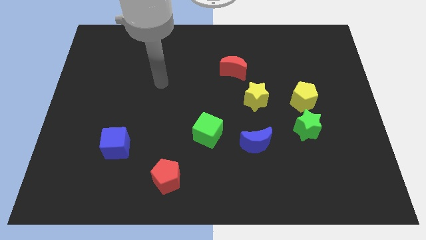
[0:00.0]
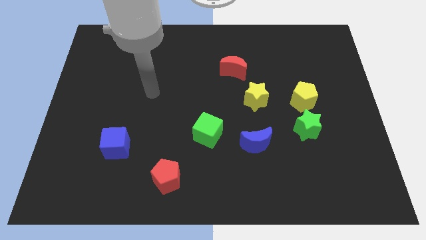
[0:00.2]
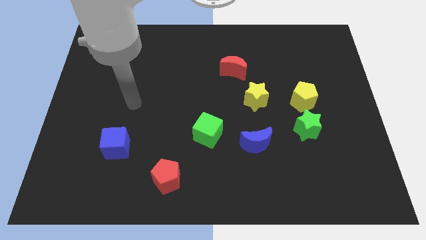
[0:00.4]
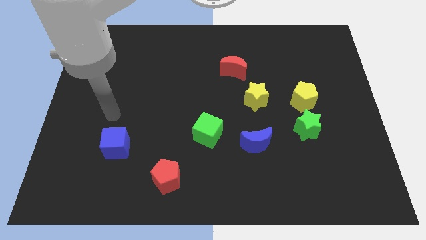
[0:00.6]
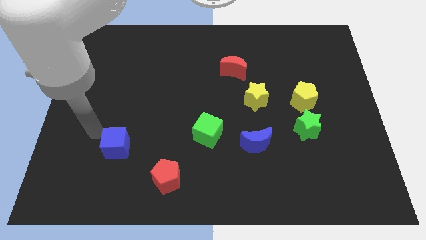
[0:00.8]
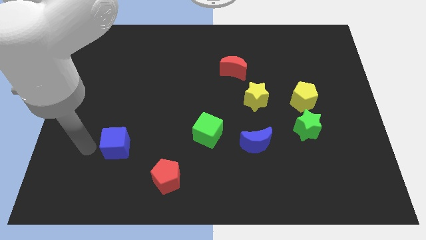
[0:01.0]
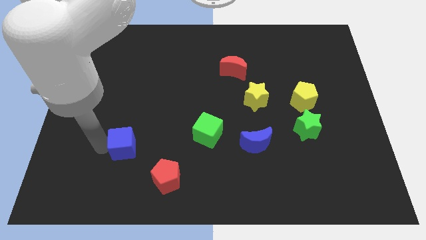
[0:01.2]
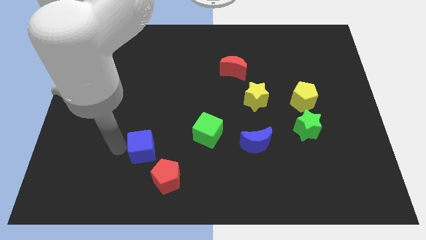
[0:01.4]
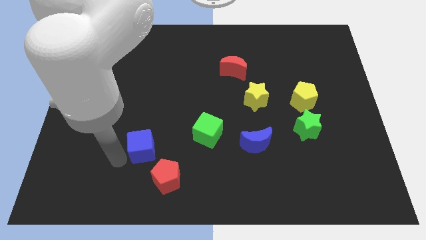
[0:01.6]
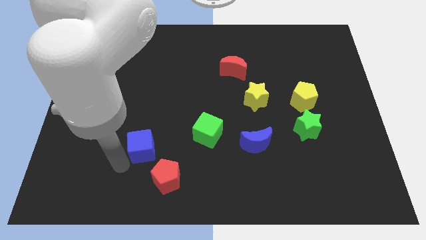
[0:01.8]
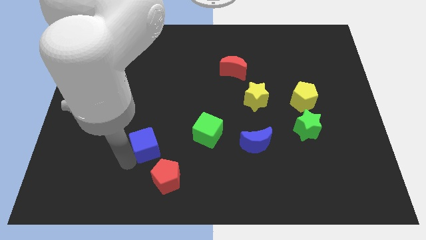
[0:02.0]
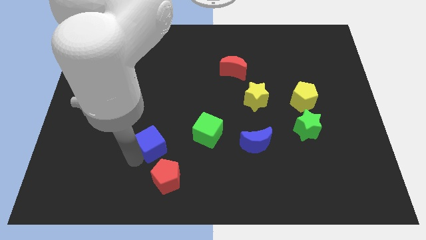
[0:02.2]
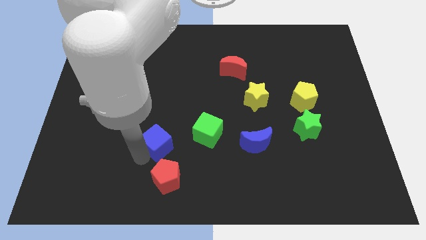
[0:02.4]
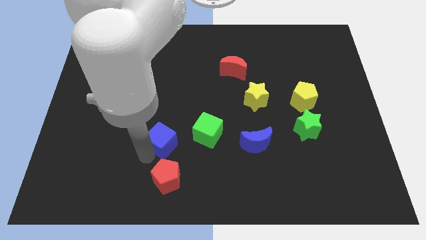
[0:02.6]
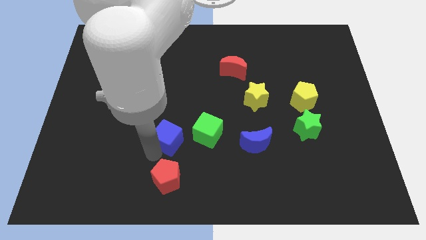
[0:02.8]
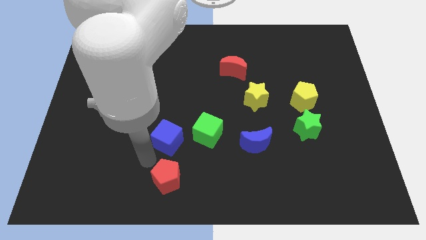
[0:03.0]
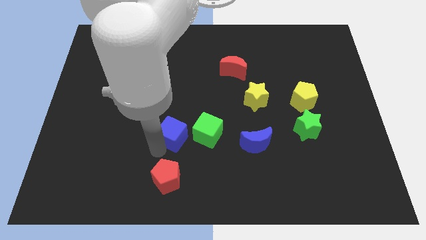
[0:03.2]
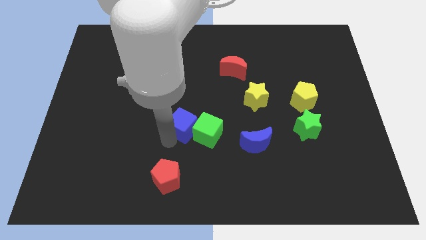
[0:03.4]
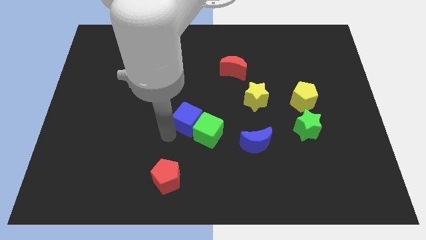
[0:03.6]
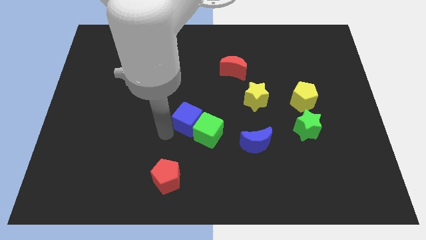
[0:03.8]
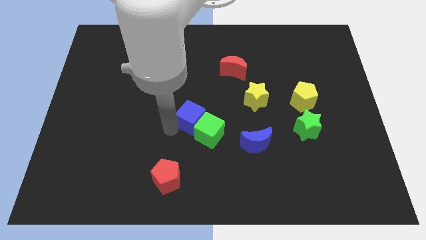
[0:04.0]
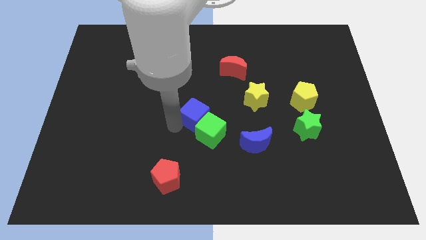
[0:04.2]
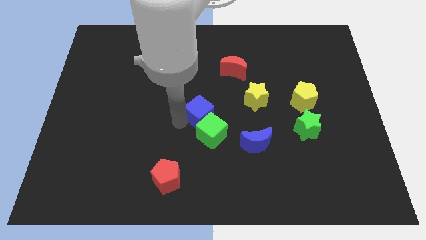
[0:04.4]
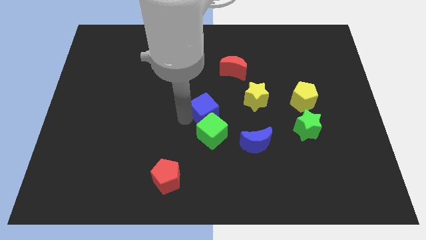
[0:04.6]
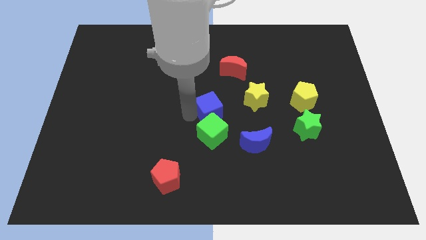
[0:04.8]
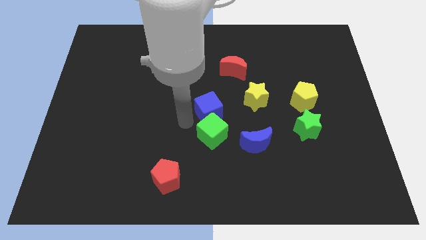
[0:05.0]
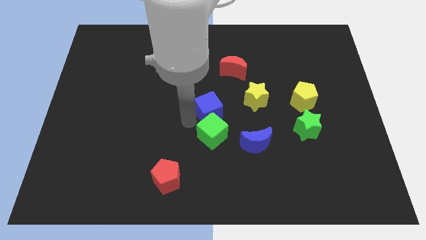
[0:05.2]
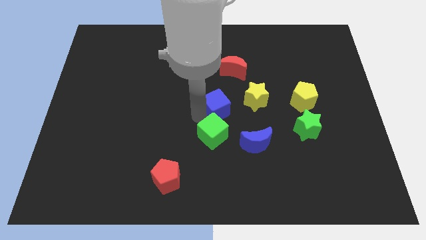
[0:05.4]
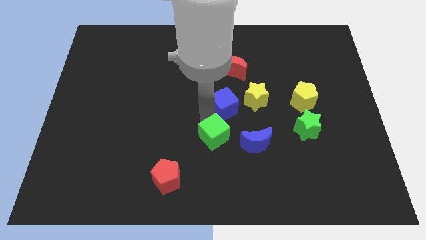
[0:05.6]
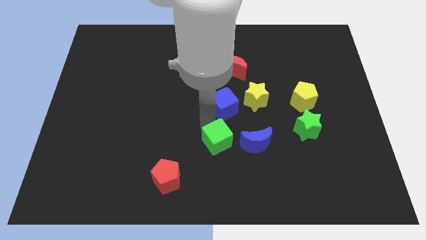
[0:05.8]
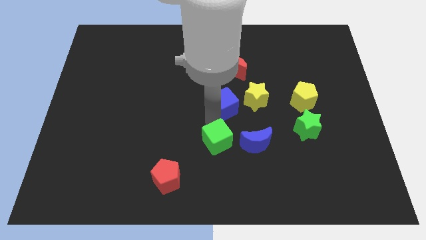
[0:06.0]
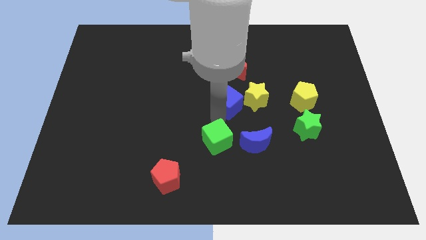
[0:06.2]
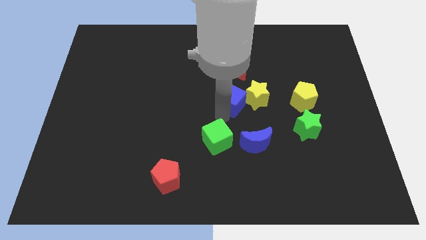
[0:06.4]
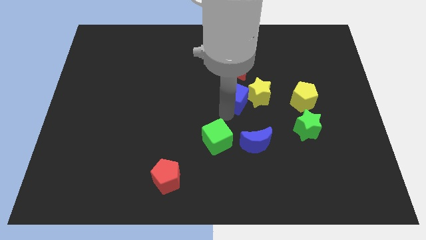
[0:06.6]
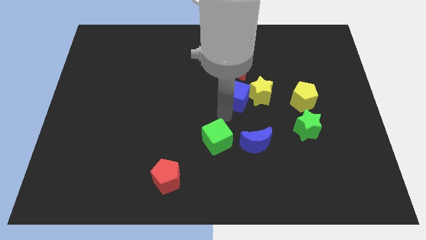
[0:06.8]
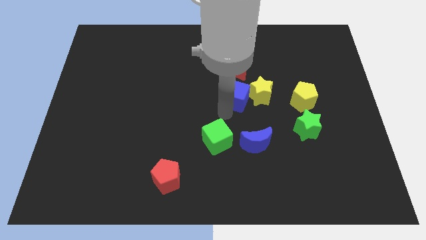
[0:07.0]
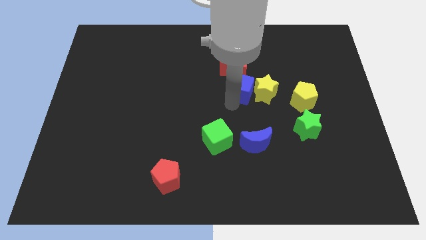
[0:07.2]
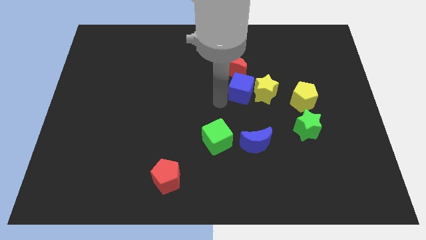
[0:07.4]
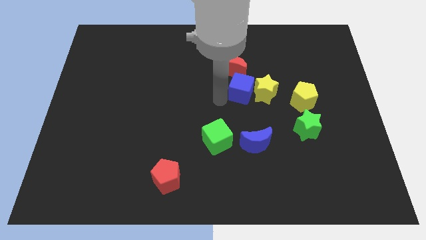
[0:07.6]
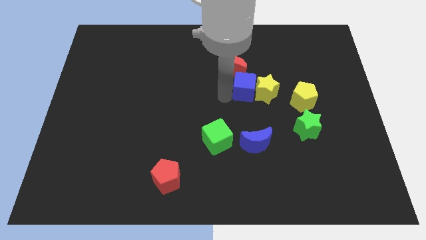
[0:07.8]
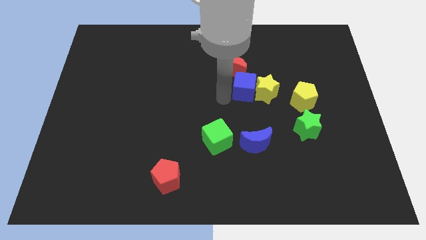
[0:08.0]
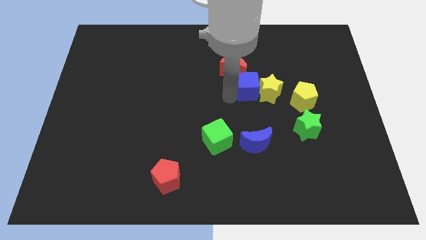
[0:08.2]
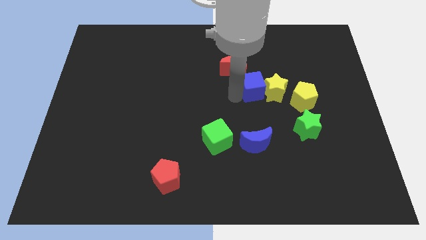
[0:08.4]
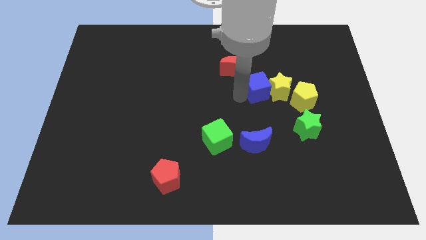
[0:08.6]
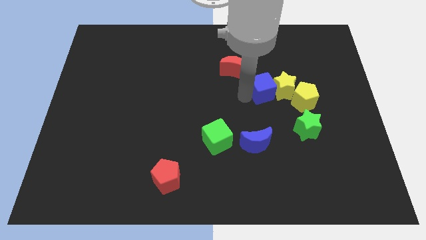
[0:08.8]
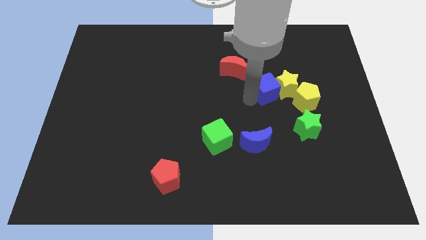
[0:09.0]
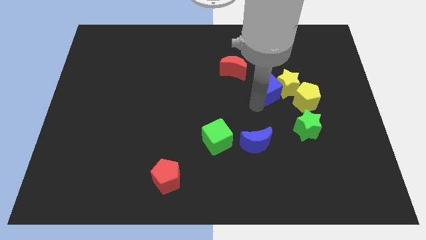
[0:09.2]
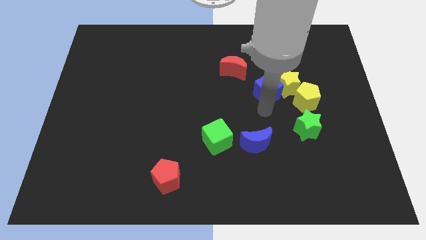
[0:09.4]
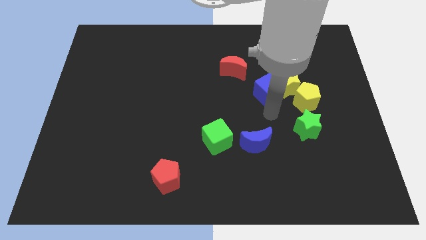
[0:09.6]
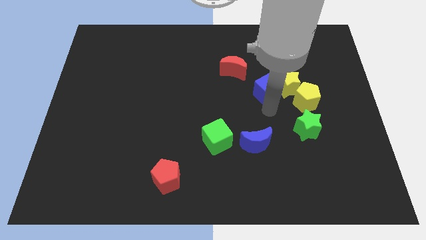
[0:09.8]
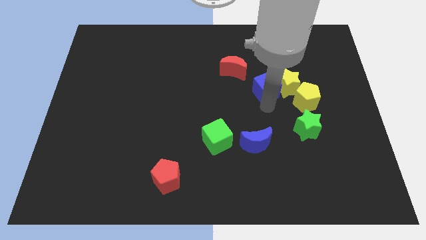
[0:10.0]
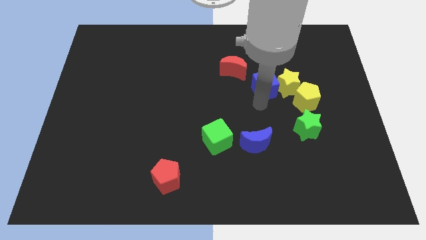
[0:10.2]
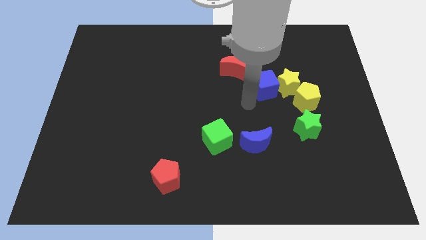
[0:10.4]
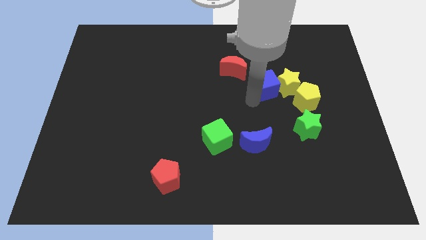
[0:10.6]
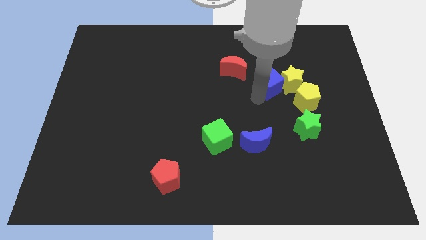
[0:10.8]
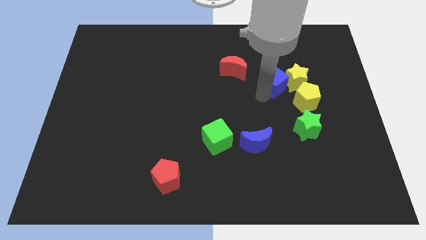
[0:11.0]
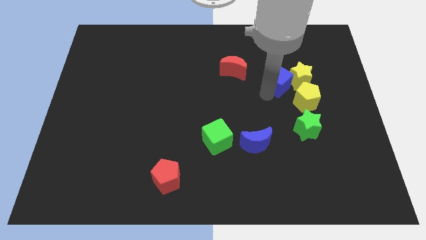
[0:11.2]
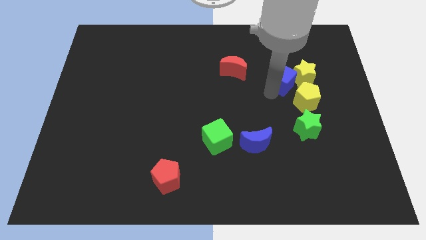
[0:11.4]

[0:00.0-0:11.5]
put the blue cube above the yellow pentagon

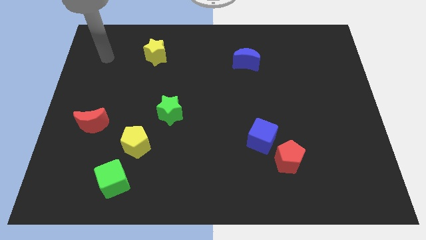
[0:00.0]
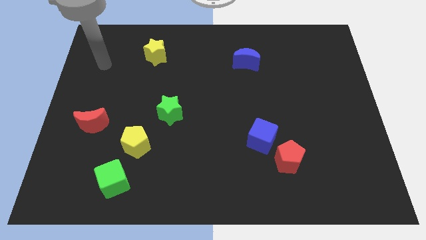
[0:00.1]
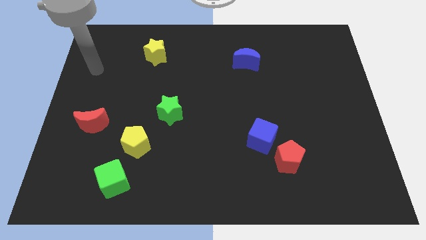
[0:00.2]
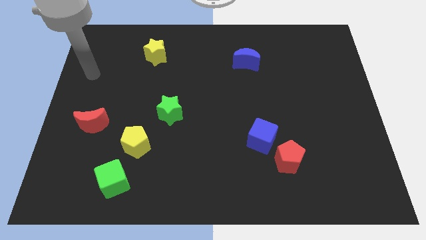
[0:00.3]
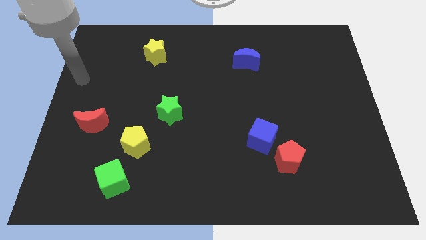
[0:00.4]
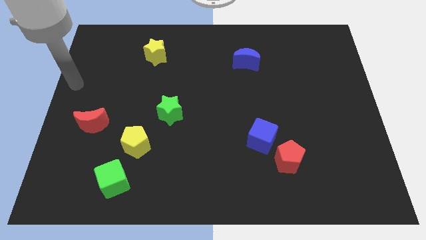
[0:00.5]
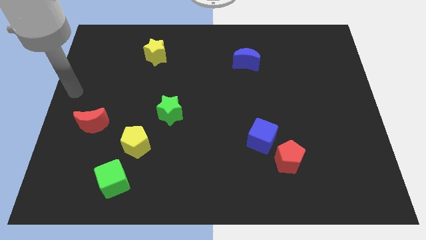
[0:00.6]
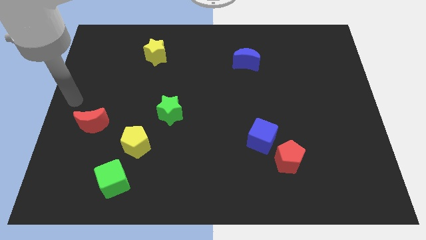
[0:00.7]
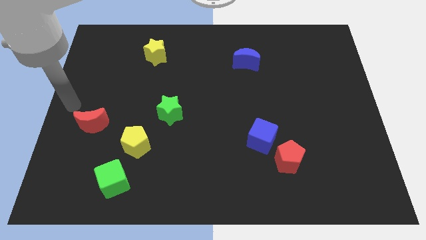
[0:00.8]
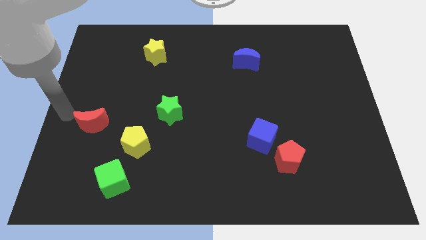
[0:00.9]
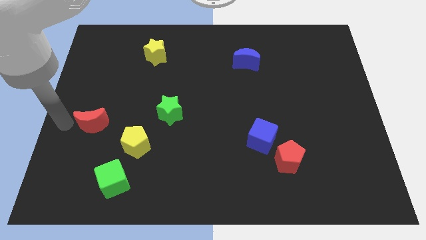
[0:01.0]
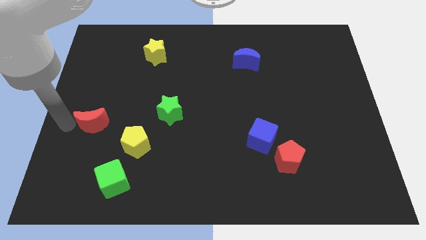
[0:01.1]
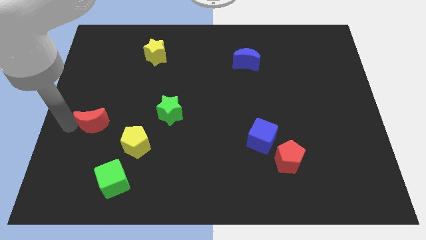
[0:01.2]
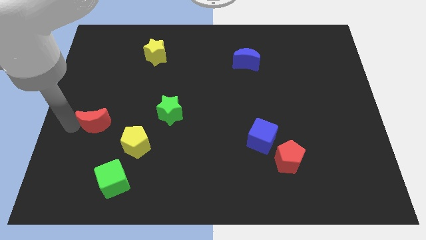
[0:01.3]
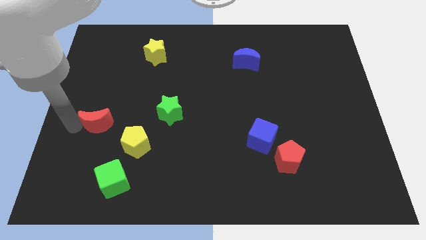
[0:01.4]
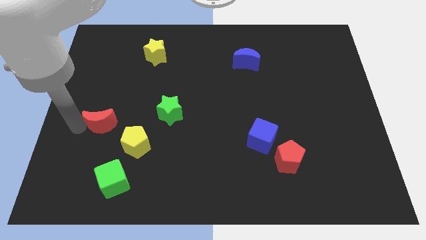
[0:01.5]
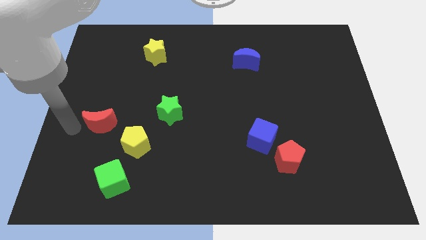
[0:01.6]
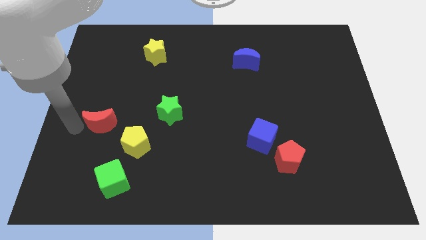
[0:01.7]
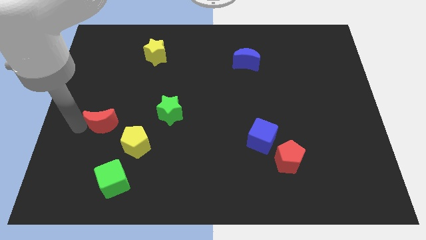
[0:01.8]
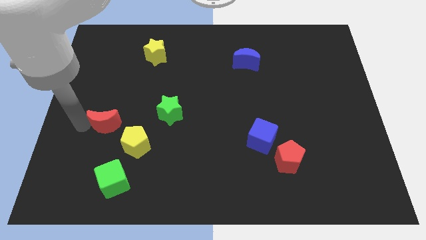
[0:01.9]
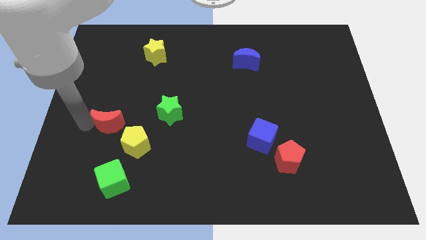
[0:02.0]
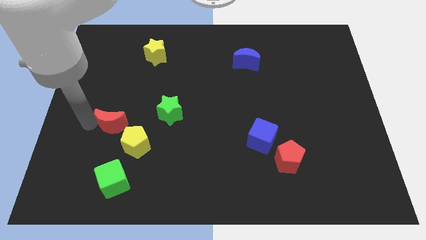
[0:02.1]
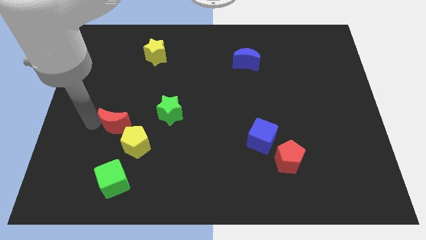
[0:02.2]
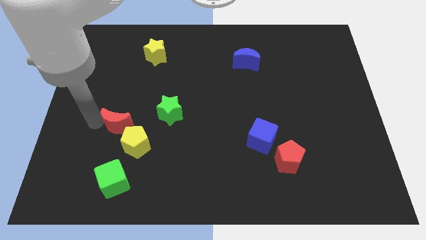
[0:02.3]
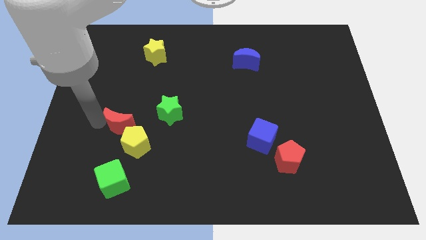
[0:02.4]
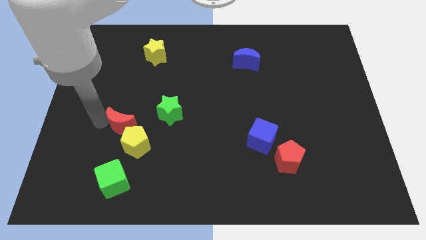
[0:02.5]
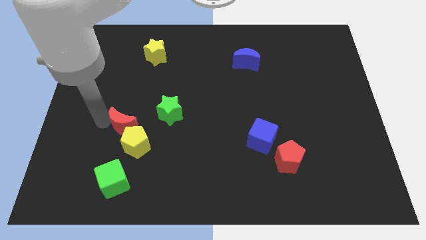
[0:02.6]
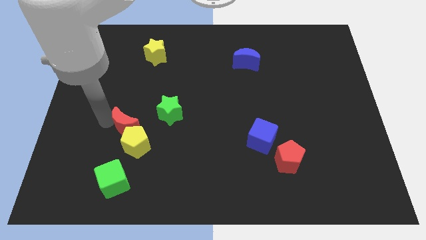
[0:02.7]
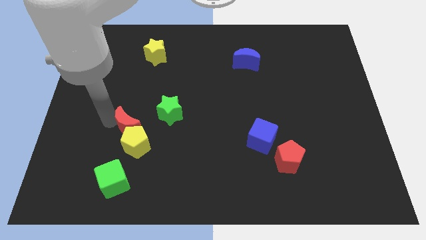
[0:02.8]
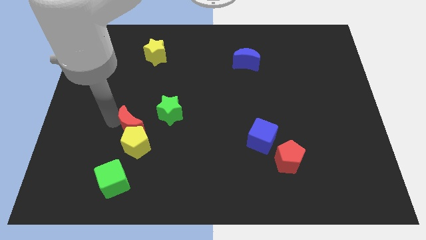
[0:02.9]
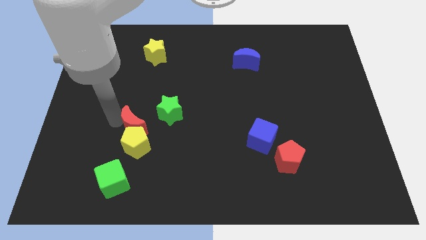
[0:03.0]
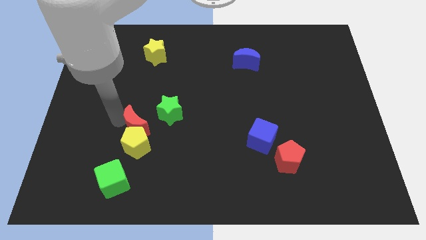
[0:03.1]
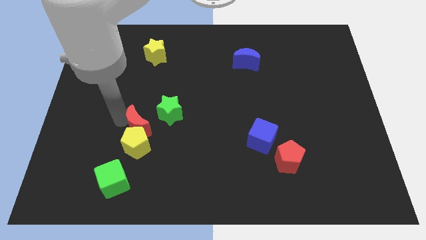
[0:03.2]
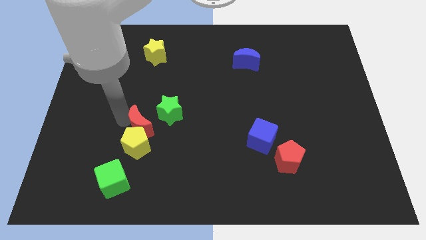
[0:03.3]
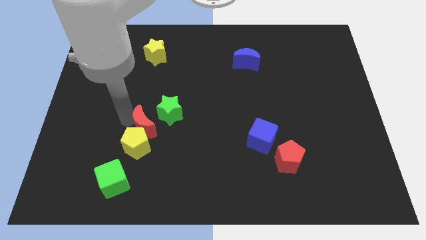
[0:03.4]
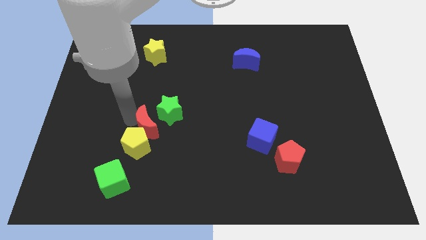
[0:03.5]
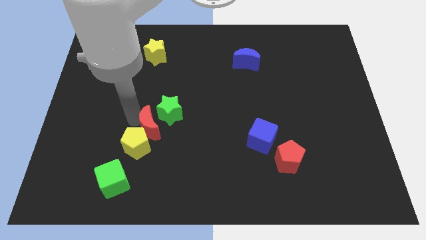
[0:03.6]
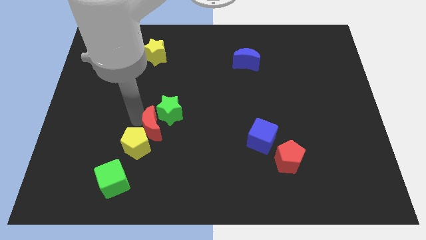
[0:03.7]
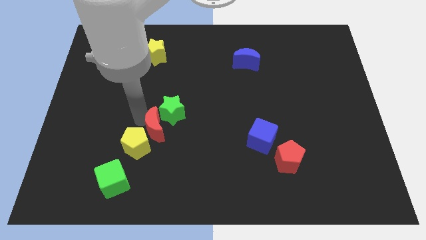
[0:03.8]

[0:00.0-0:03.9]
push the red moon just right of the yellow pentagon
